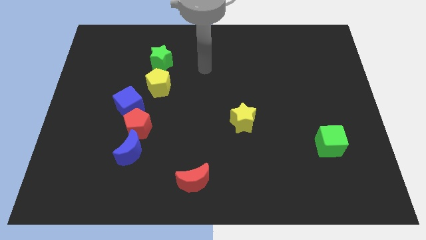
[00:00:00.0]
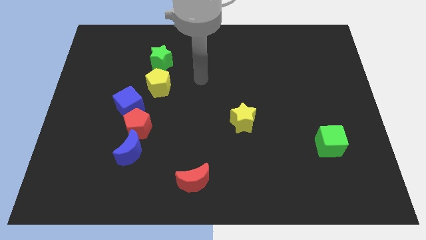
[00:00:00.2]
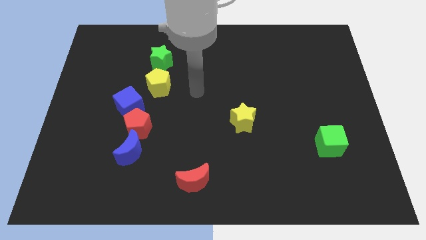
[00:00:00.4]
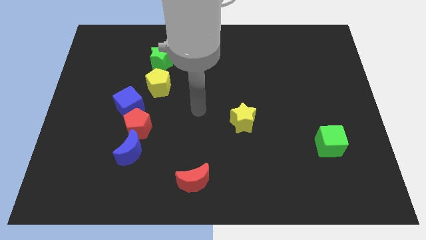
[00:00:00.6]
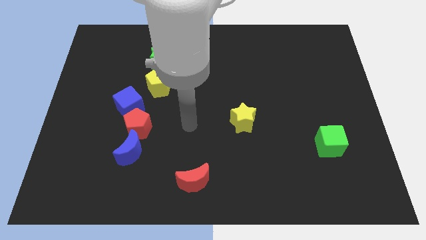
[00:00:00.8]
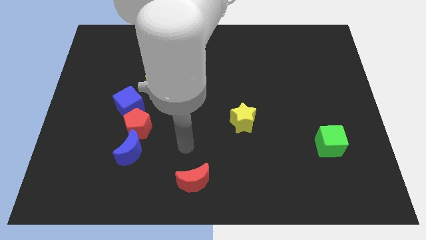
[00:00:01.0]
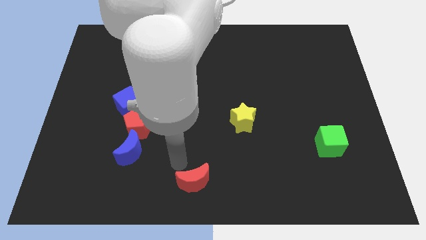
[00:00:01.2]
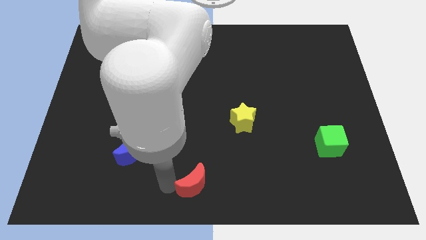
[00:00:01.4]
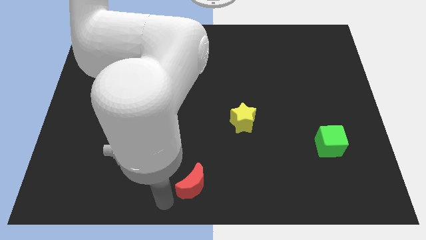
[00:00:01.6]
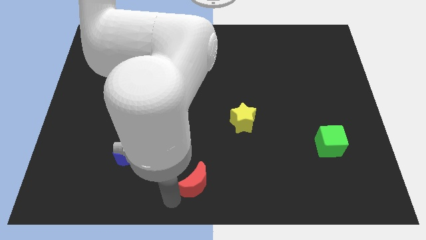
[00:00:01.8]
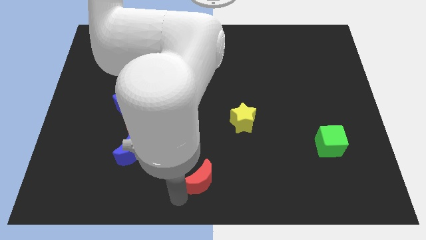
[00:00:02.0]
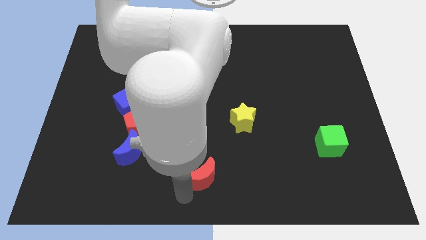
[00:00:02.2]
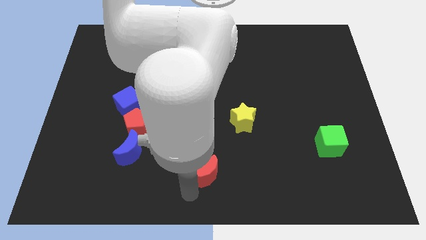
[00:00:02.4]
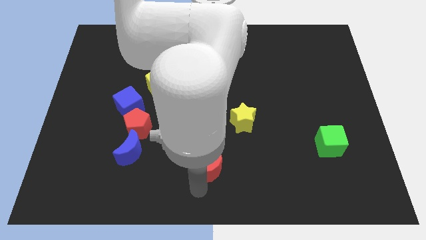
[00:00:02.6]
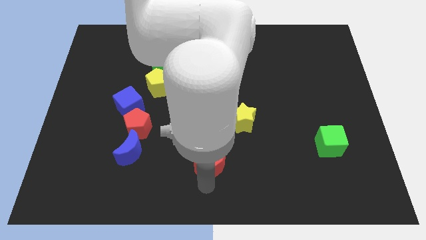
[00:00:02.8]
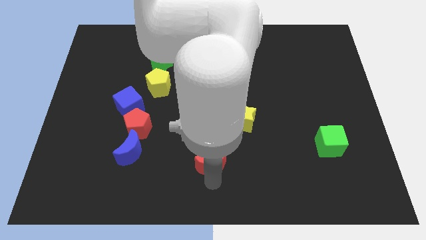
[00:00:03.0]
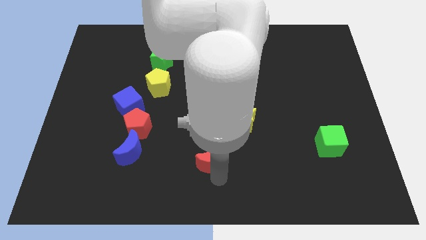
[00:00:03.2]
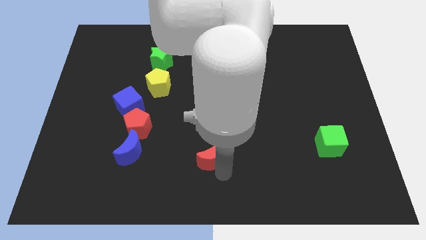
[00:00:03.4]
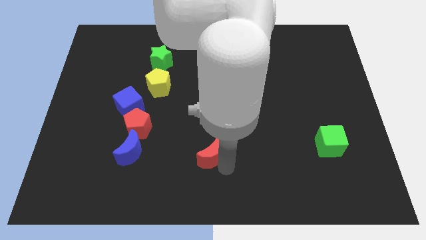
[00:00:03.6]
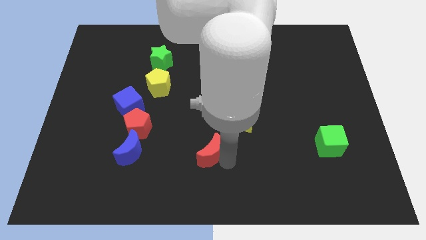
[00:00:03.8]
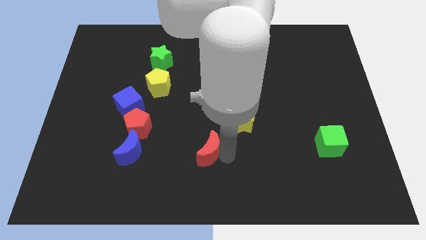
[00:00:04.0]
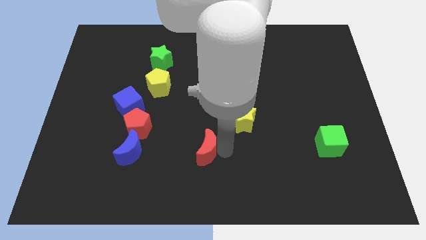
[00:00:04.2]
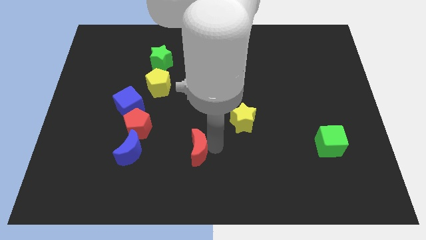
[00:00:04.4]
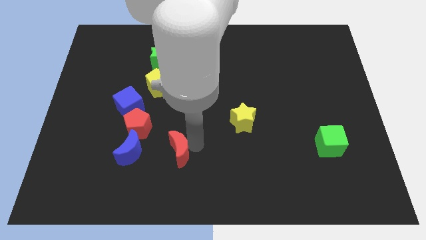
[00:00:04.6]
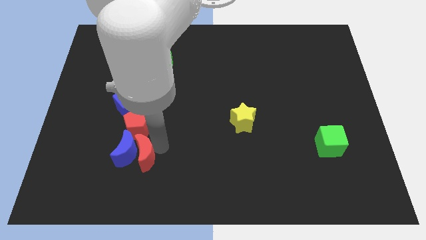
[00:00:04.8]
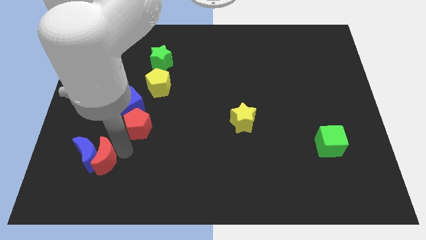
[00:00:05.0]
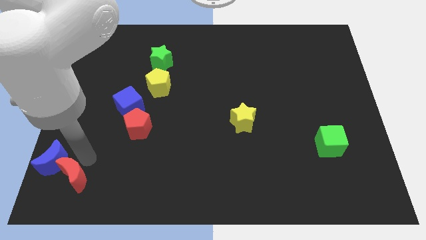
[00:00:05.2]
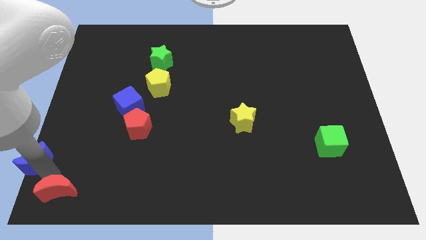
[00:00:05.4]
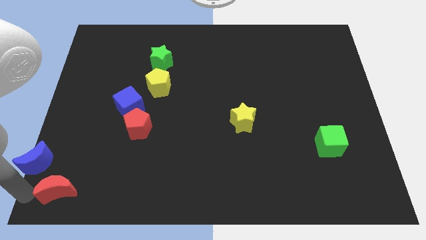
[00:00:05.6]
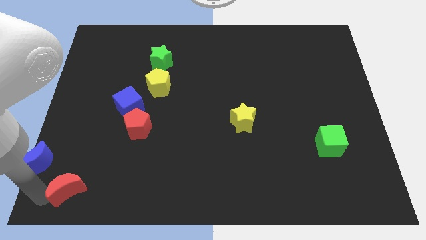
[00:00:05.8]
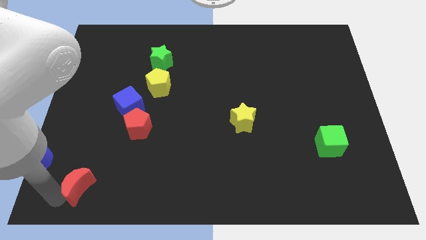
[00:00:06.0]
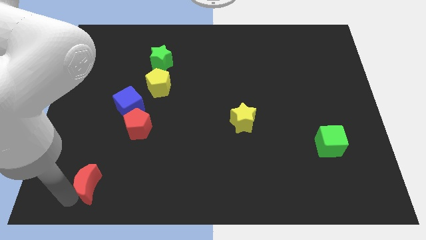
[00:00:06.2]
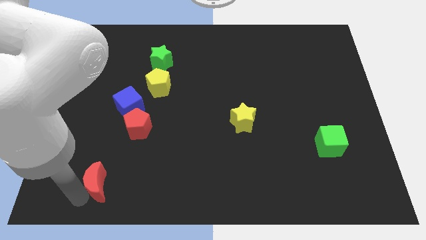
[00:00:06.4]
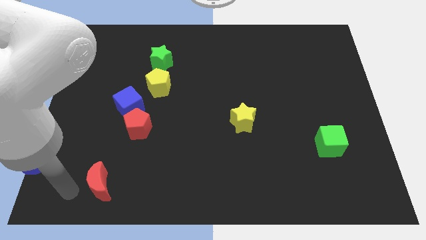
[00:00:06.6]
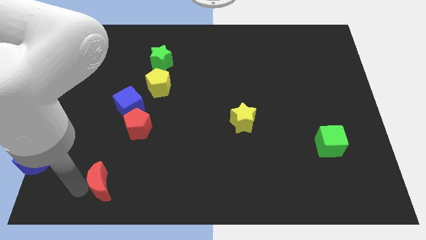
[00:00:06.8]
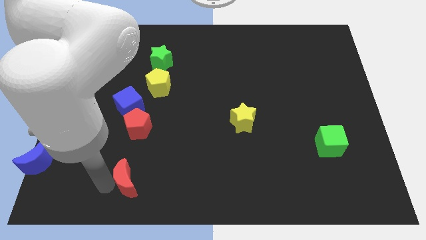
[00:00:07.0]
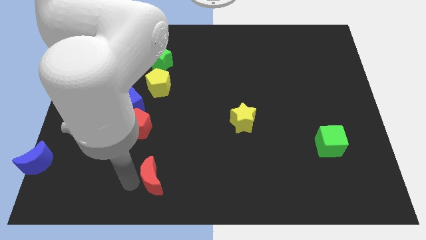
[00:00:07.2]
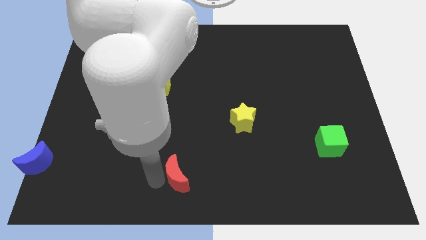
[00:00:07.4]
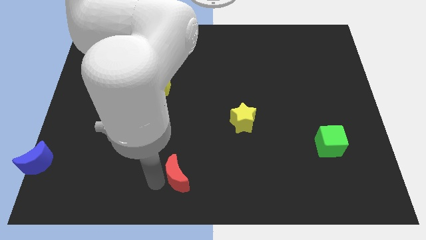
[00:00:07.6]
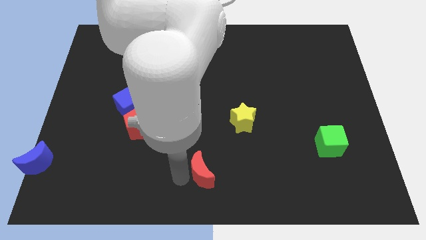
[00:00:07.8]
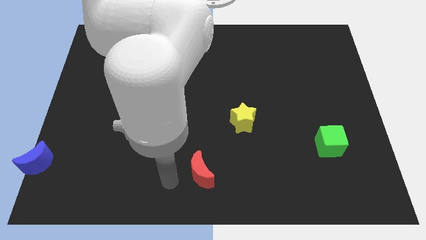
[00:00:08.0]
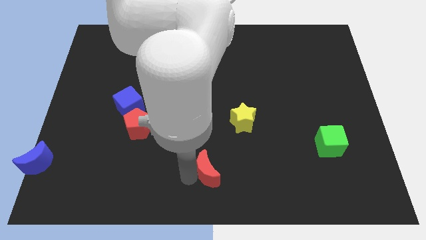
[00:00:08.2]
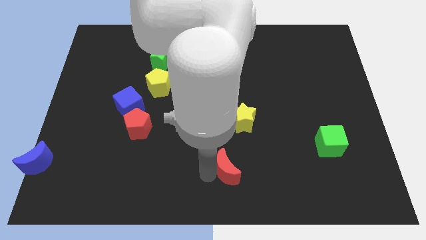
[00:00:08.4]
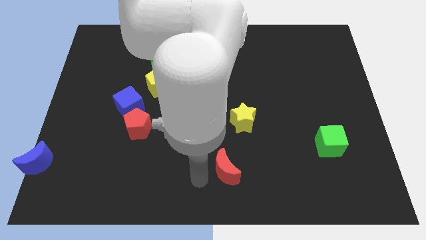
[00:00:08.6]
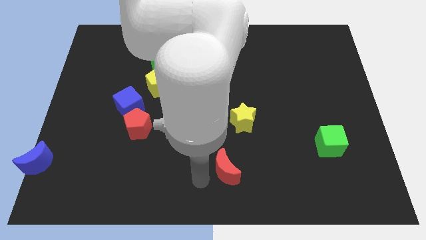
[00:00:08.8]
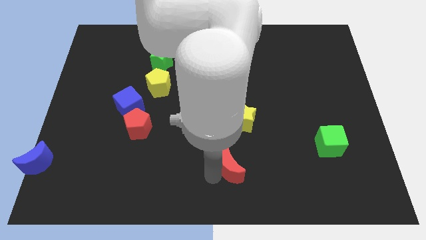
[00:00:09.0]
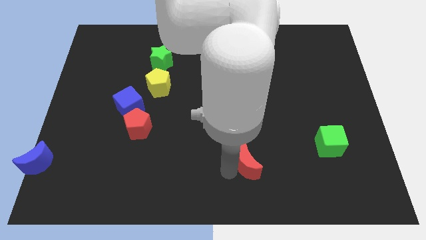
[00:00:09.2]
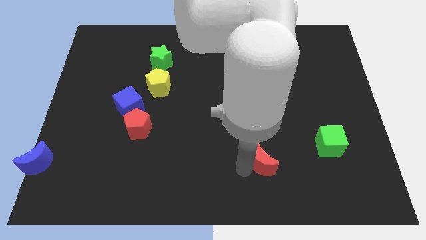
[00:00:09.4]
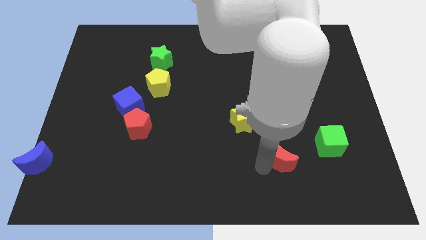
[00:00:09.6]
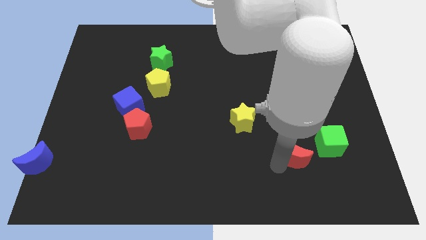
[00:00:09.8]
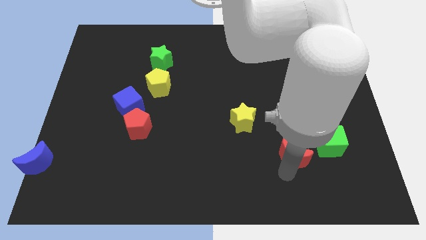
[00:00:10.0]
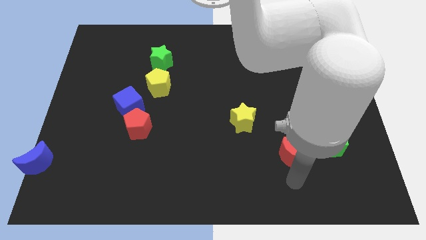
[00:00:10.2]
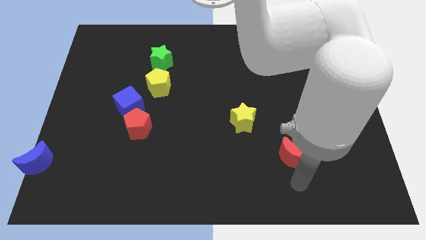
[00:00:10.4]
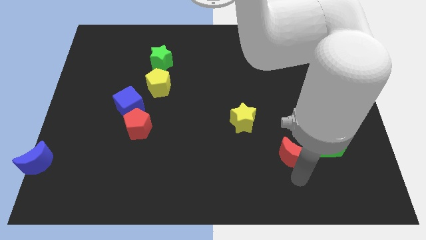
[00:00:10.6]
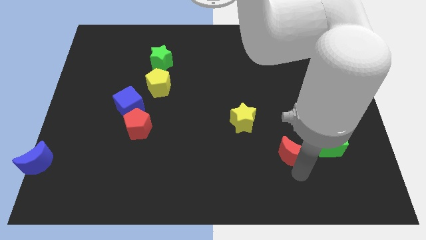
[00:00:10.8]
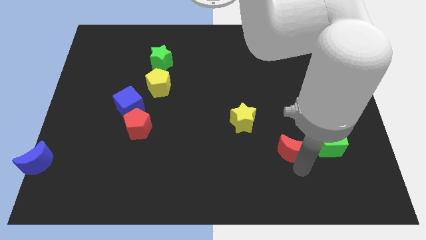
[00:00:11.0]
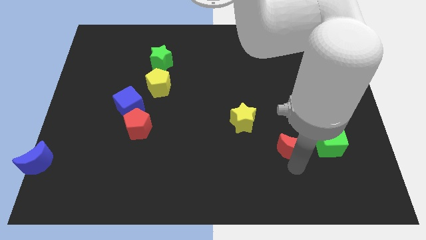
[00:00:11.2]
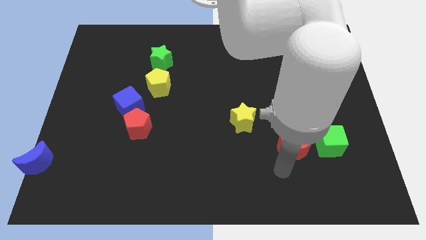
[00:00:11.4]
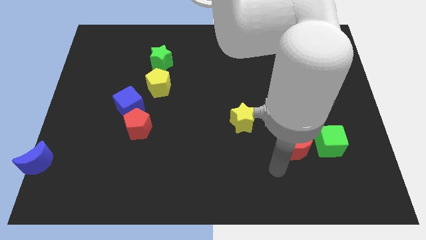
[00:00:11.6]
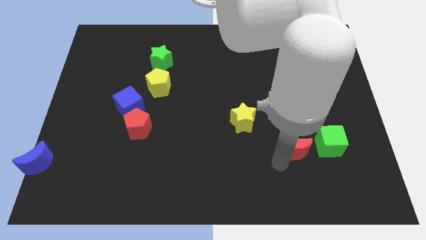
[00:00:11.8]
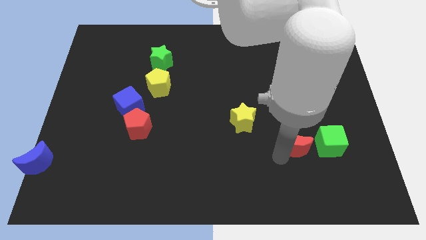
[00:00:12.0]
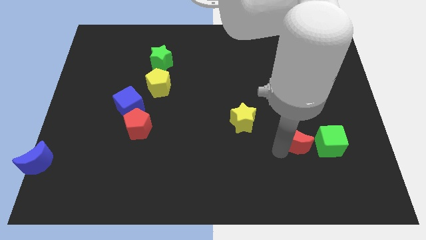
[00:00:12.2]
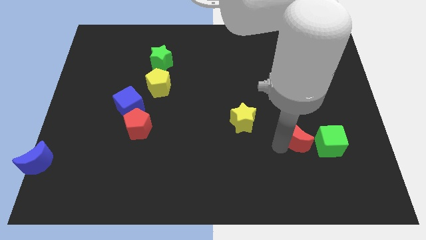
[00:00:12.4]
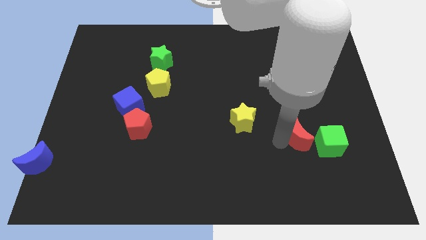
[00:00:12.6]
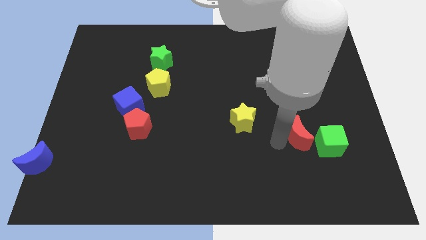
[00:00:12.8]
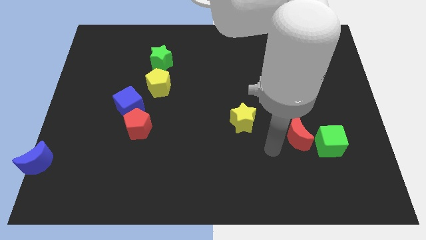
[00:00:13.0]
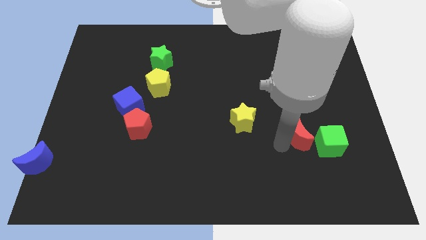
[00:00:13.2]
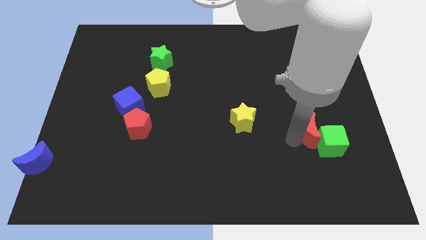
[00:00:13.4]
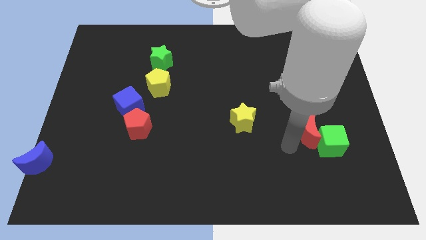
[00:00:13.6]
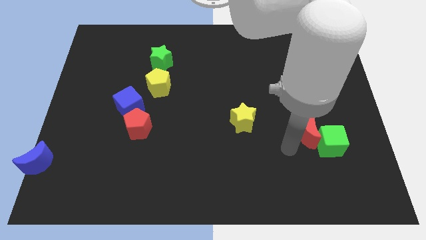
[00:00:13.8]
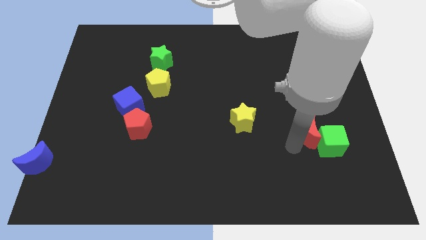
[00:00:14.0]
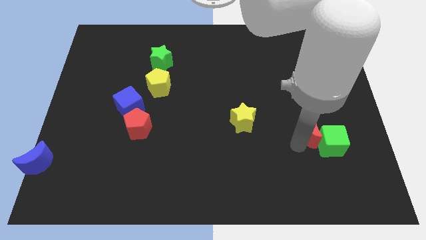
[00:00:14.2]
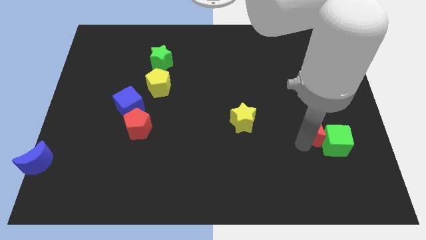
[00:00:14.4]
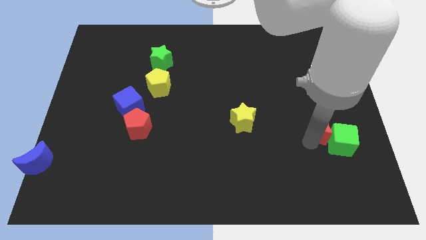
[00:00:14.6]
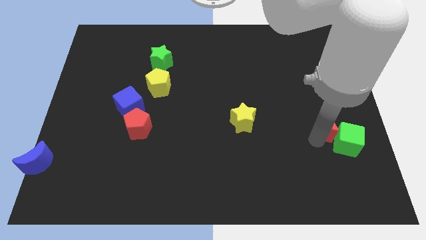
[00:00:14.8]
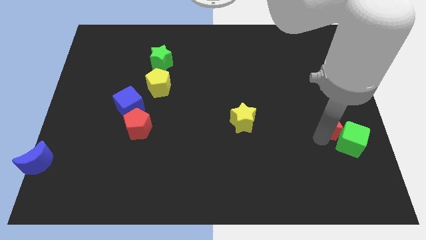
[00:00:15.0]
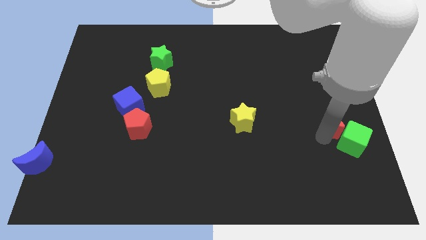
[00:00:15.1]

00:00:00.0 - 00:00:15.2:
put the red moon to the right side of the board
